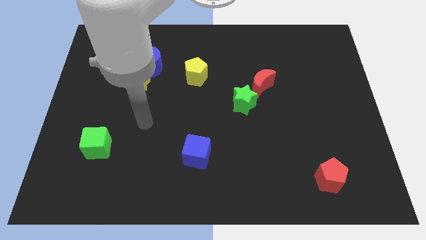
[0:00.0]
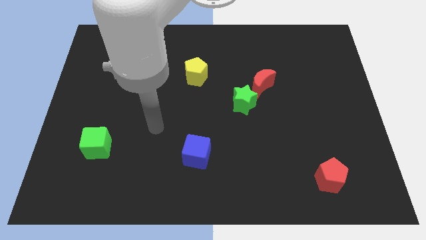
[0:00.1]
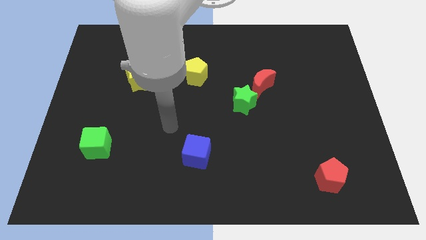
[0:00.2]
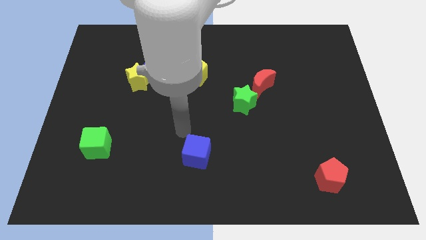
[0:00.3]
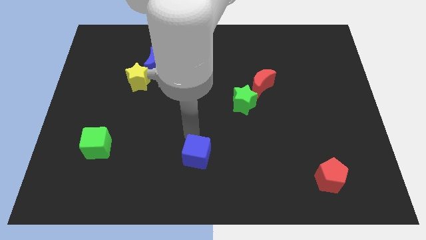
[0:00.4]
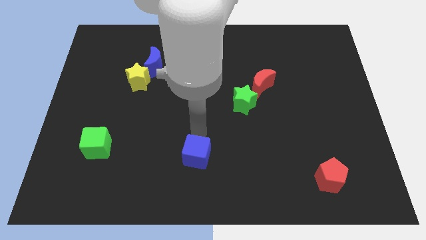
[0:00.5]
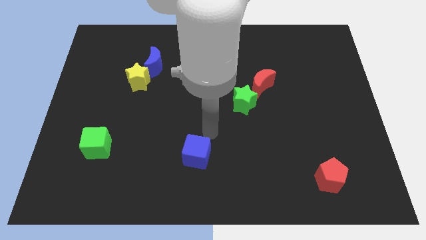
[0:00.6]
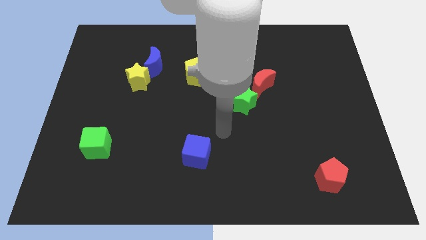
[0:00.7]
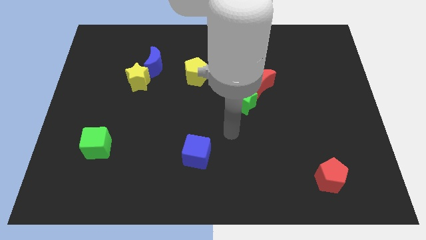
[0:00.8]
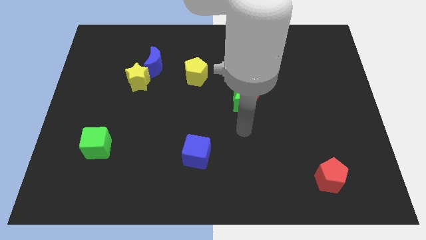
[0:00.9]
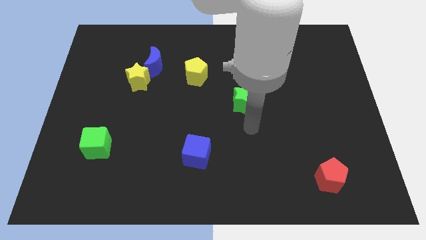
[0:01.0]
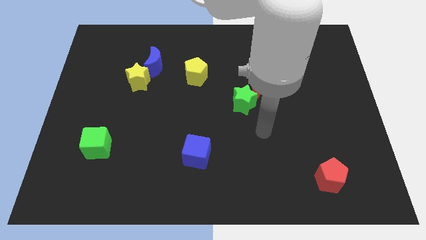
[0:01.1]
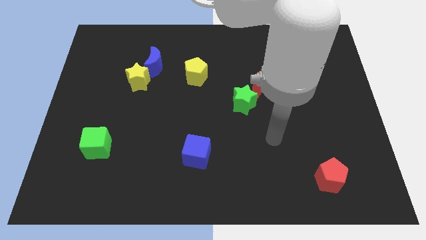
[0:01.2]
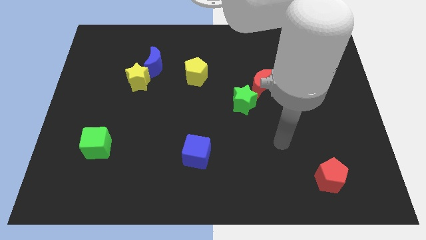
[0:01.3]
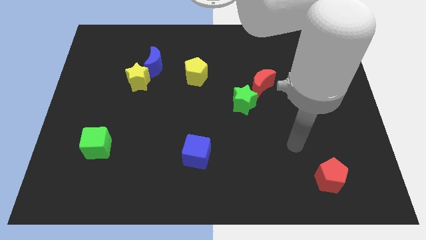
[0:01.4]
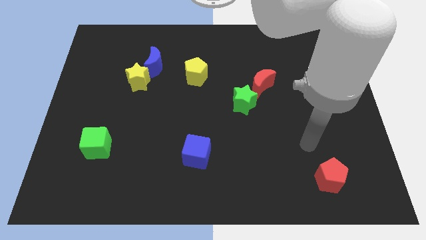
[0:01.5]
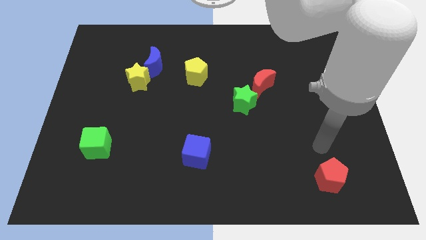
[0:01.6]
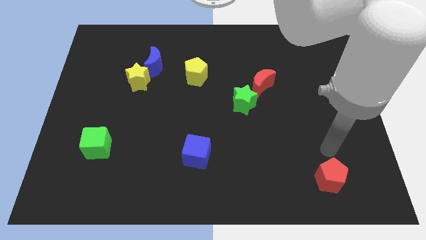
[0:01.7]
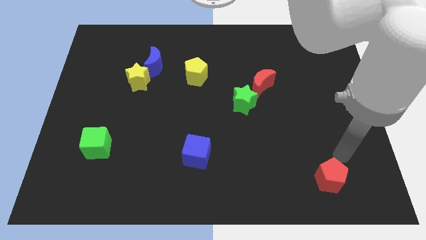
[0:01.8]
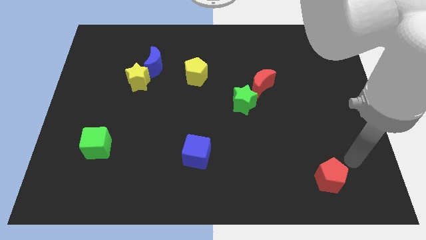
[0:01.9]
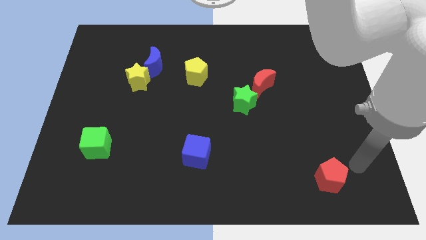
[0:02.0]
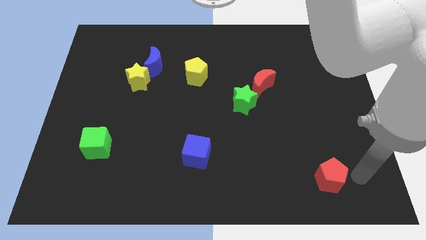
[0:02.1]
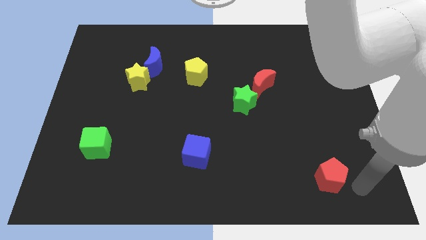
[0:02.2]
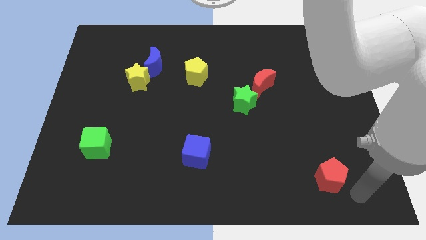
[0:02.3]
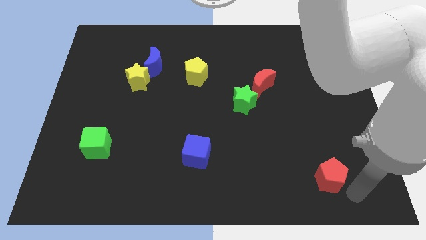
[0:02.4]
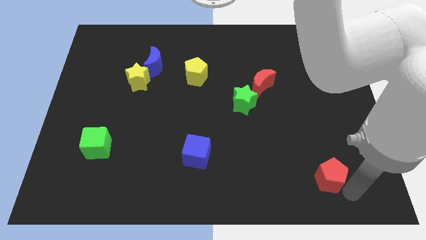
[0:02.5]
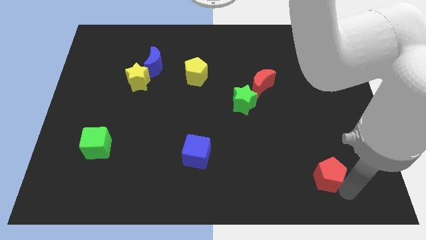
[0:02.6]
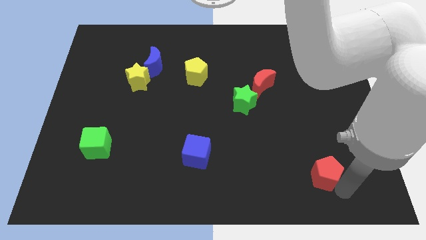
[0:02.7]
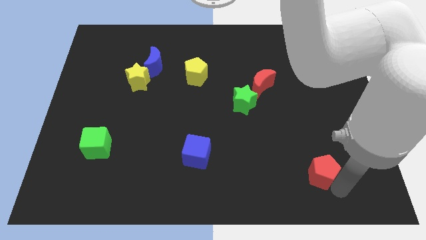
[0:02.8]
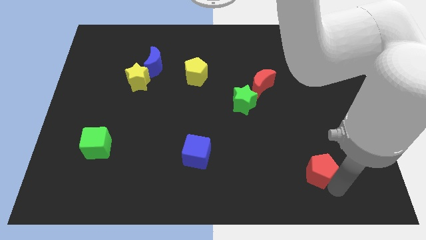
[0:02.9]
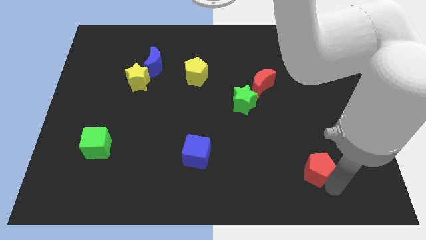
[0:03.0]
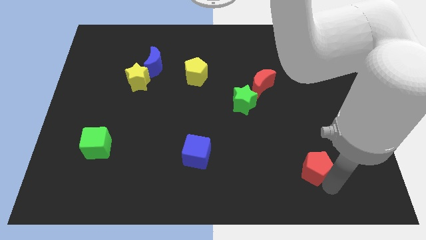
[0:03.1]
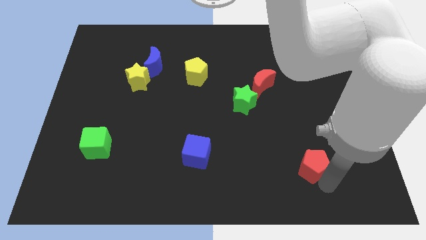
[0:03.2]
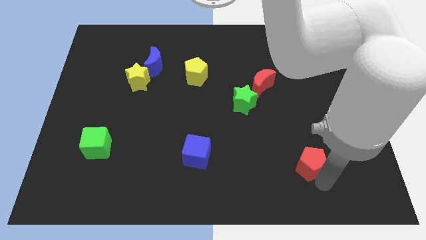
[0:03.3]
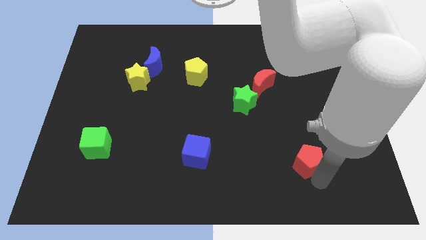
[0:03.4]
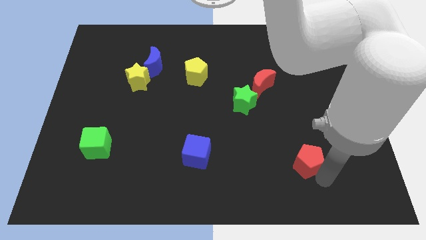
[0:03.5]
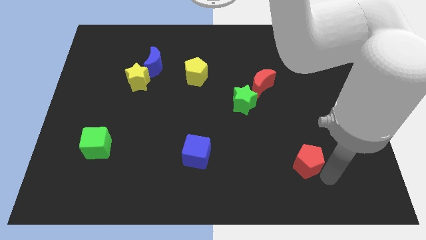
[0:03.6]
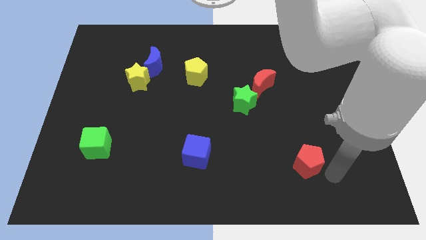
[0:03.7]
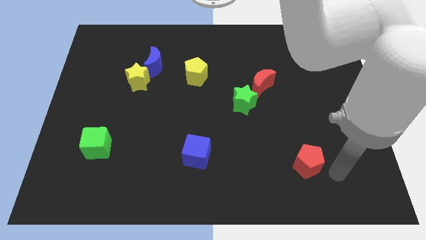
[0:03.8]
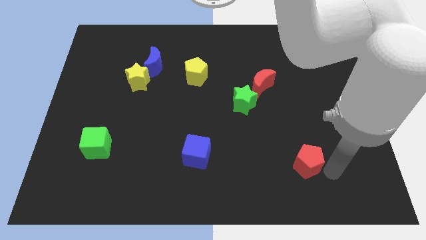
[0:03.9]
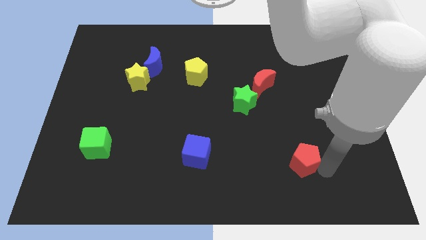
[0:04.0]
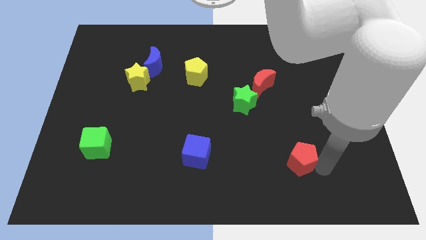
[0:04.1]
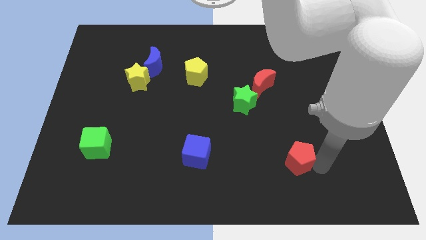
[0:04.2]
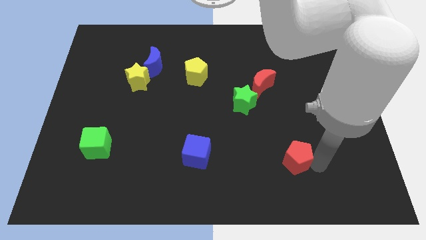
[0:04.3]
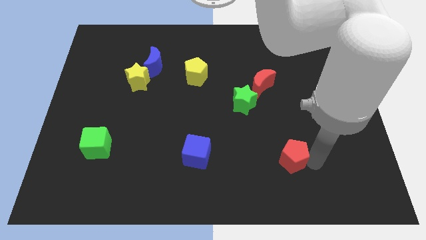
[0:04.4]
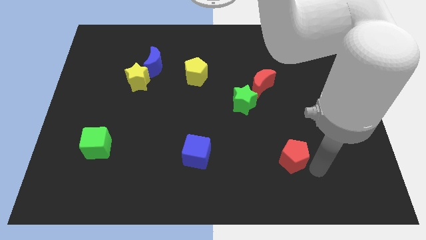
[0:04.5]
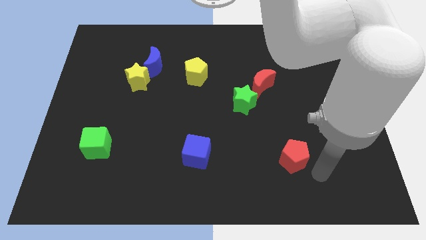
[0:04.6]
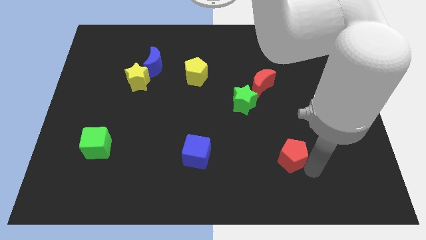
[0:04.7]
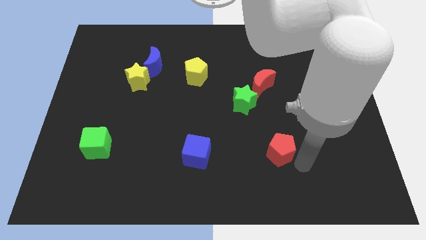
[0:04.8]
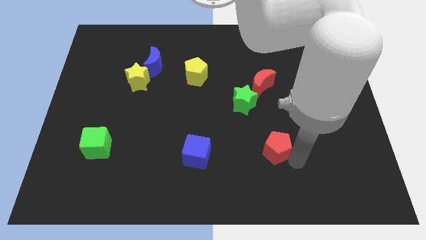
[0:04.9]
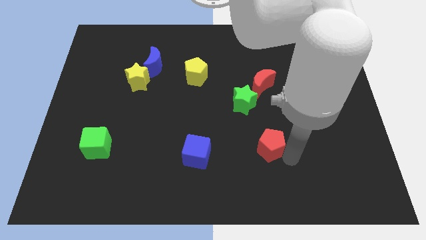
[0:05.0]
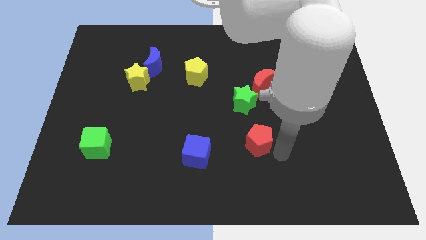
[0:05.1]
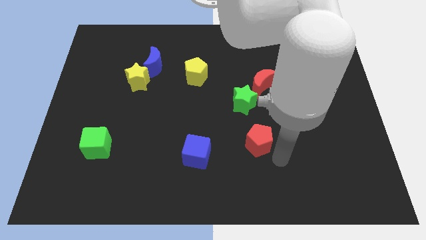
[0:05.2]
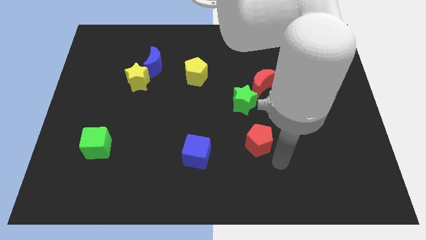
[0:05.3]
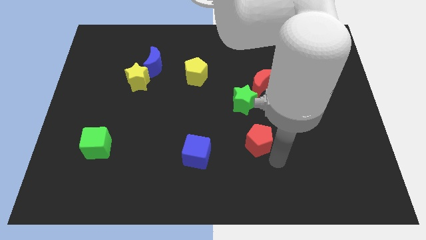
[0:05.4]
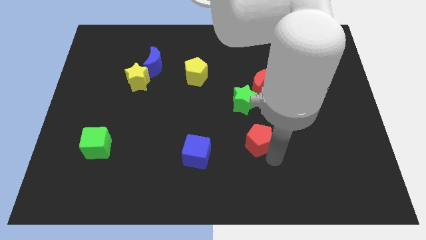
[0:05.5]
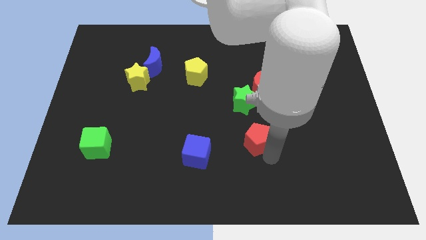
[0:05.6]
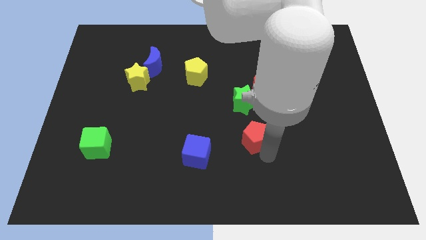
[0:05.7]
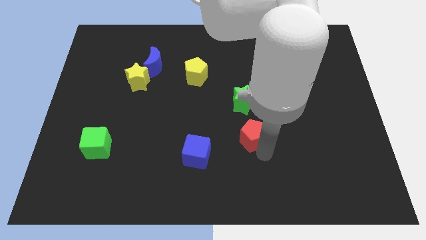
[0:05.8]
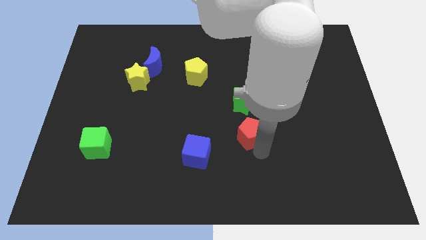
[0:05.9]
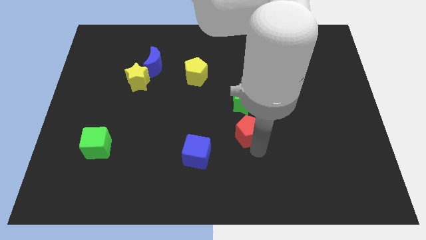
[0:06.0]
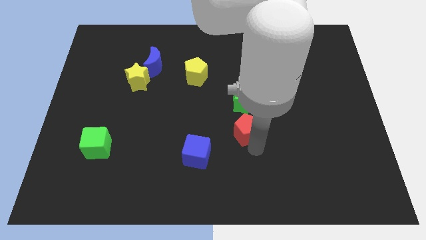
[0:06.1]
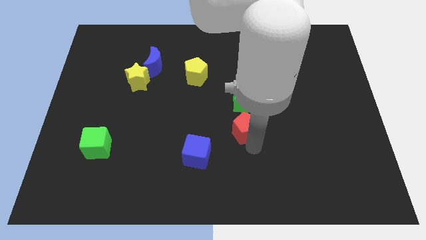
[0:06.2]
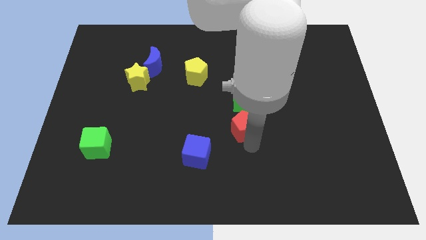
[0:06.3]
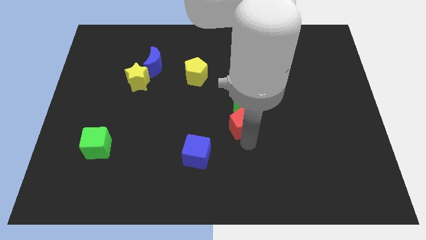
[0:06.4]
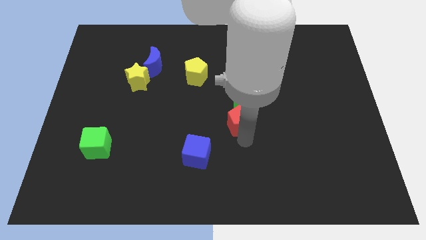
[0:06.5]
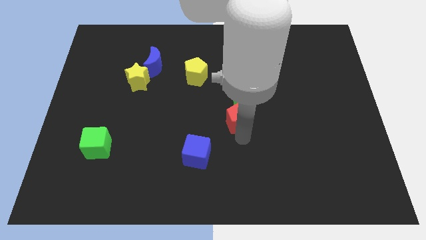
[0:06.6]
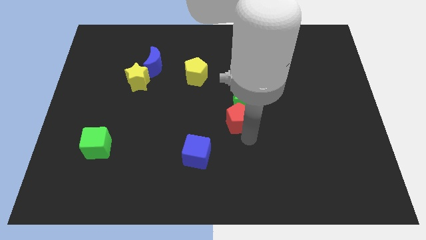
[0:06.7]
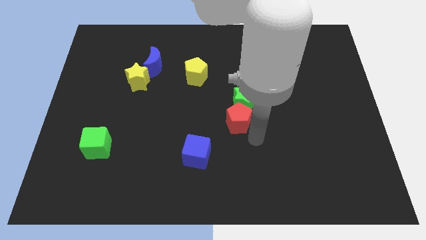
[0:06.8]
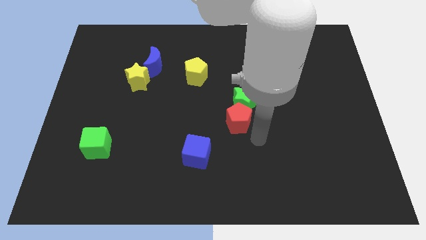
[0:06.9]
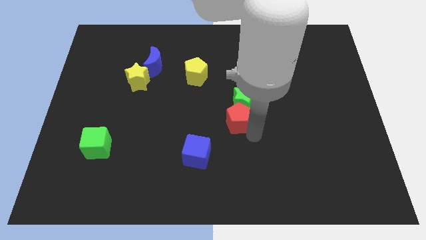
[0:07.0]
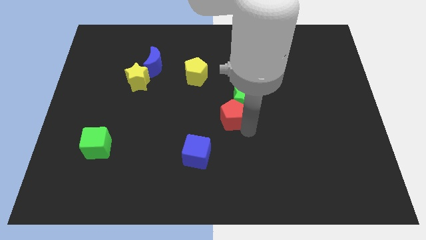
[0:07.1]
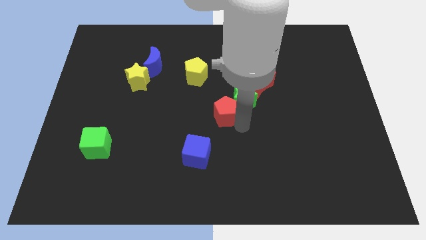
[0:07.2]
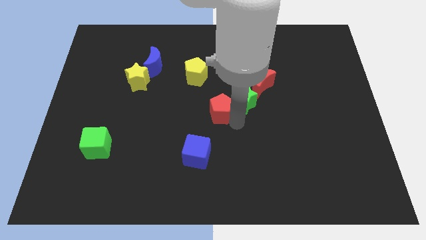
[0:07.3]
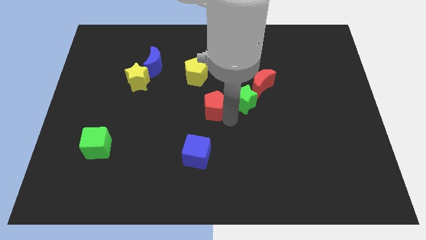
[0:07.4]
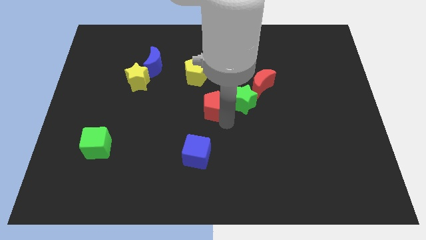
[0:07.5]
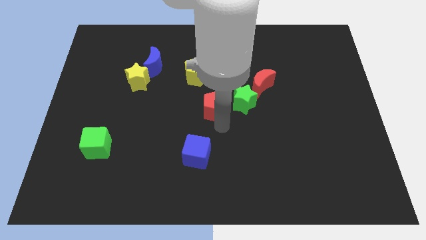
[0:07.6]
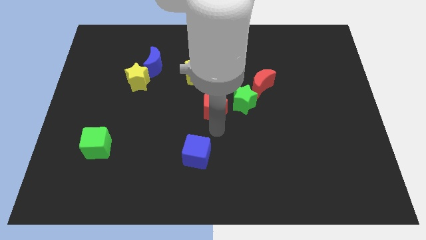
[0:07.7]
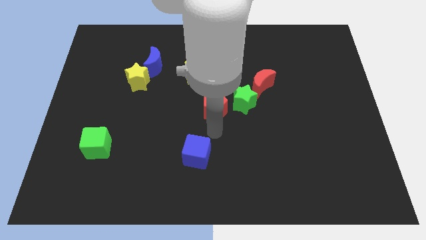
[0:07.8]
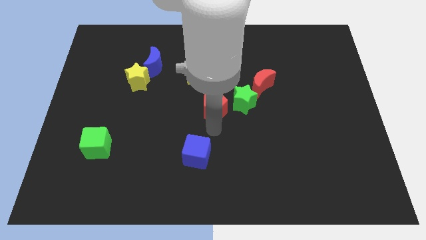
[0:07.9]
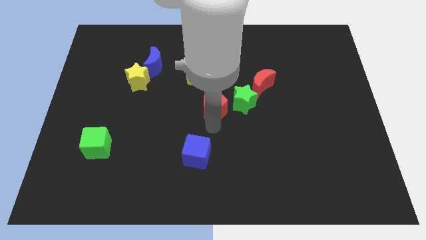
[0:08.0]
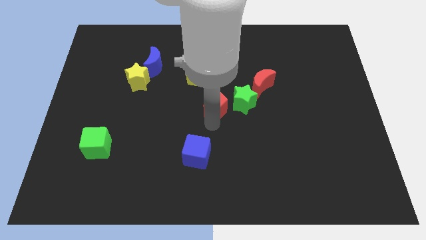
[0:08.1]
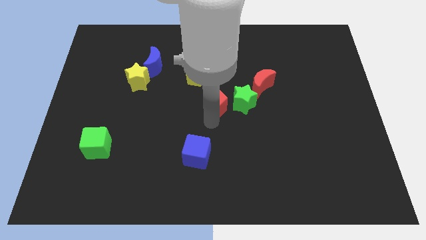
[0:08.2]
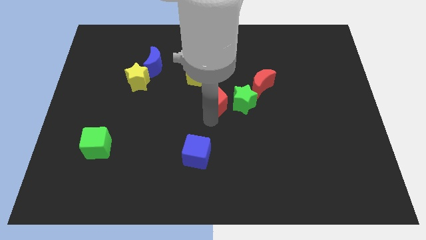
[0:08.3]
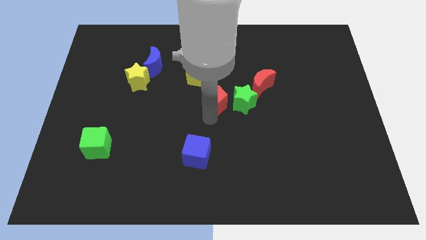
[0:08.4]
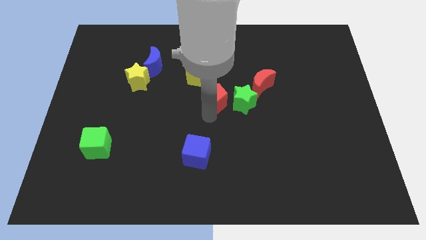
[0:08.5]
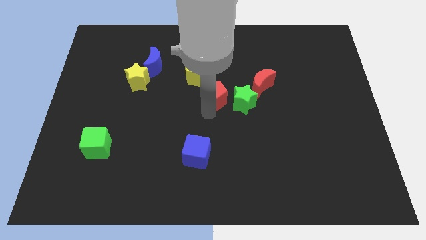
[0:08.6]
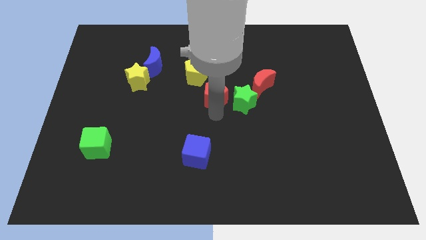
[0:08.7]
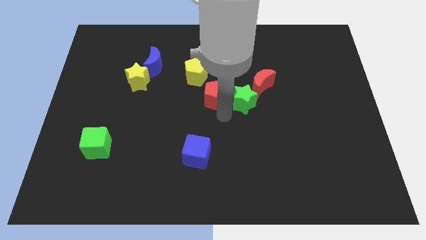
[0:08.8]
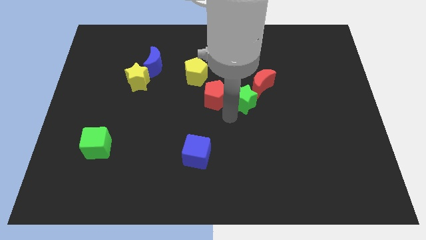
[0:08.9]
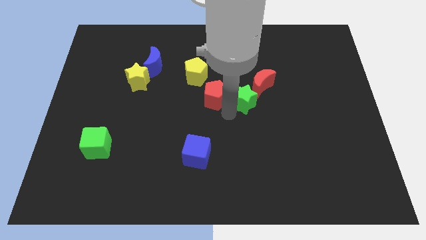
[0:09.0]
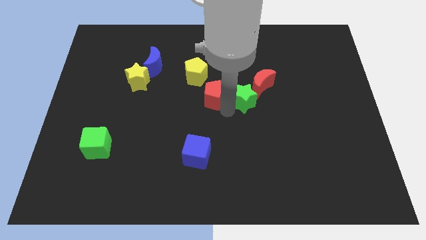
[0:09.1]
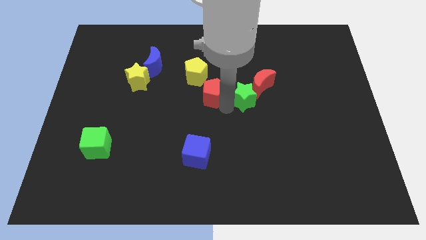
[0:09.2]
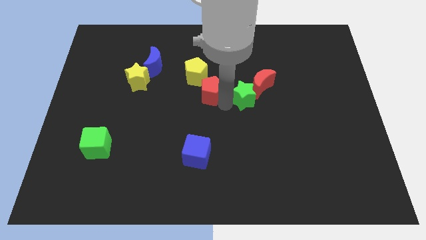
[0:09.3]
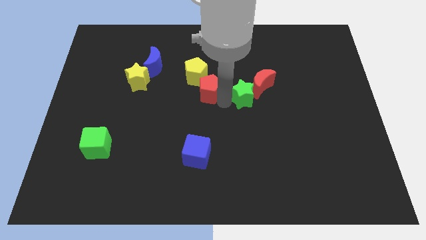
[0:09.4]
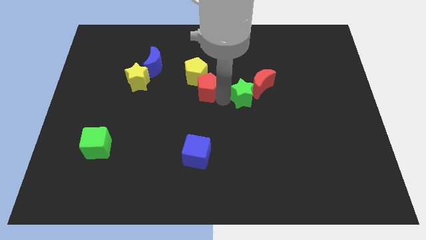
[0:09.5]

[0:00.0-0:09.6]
push the red pentagon next to the yellow pentagon
